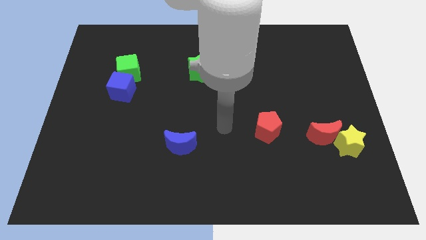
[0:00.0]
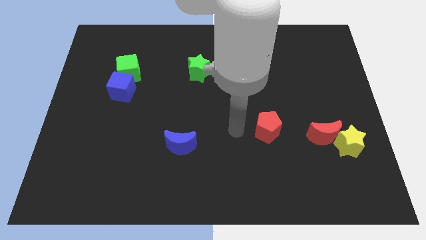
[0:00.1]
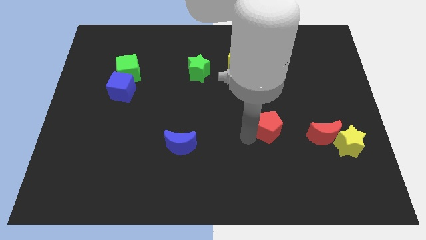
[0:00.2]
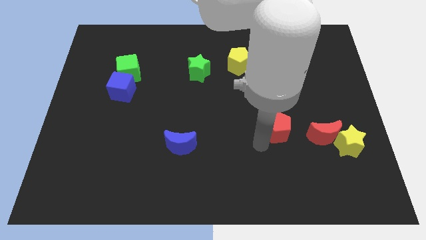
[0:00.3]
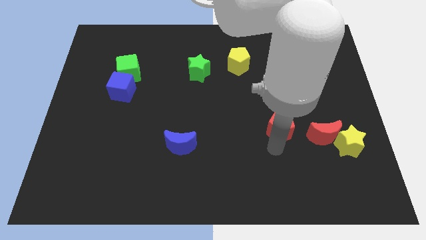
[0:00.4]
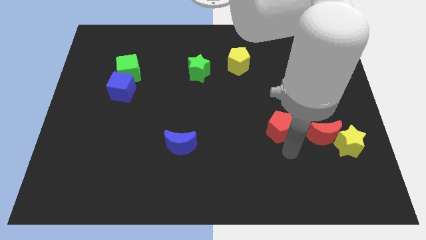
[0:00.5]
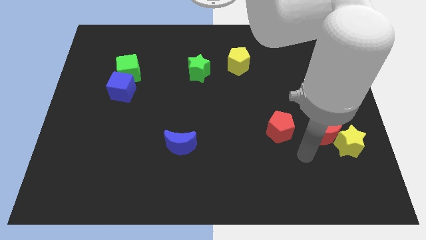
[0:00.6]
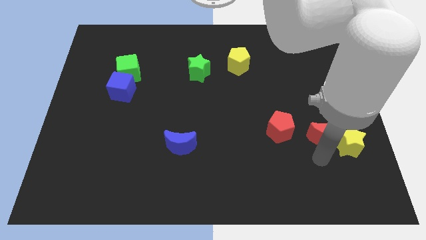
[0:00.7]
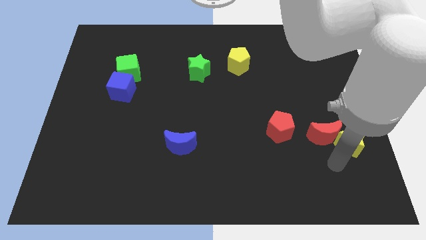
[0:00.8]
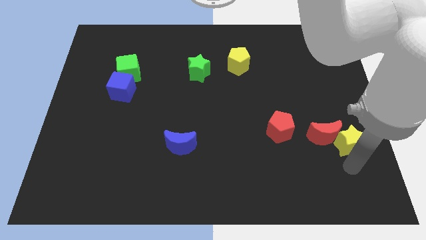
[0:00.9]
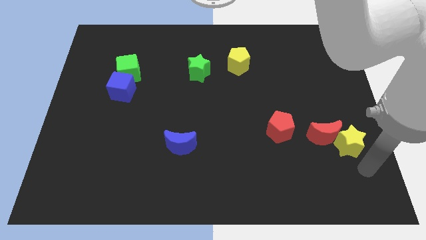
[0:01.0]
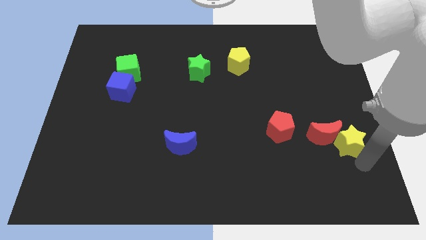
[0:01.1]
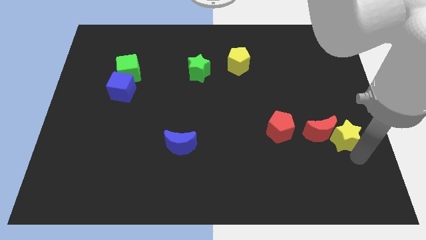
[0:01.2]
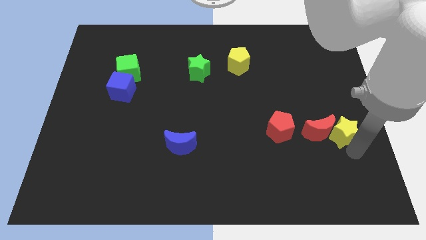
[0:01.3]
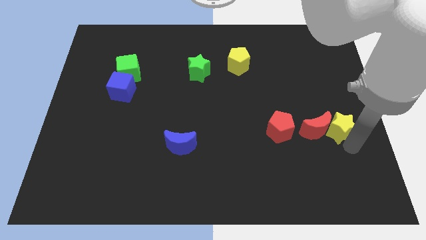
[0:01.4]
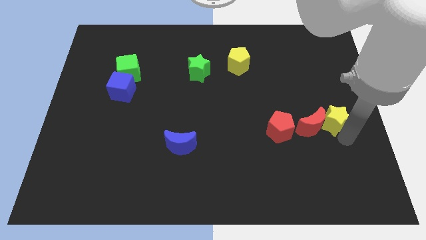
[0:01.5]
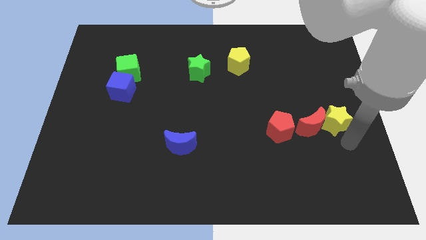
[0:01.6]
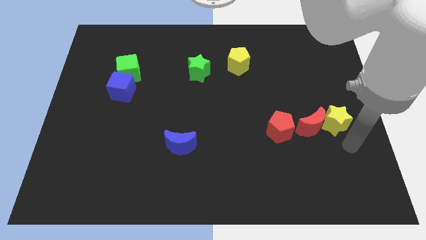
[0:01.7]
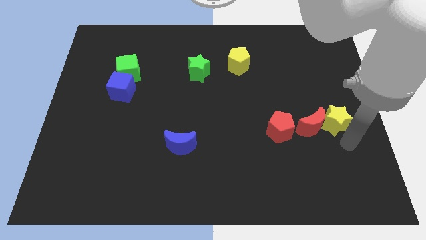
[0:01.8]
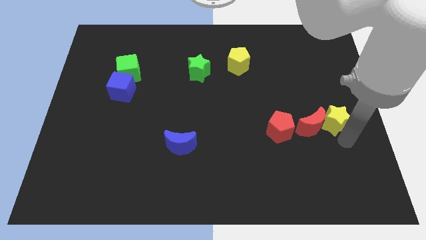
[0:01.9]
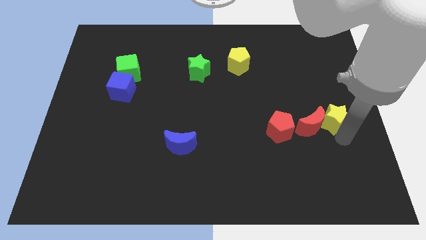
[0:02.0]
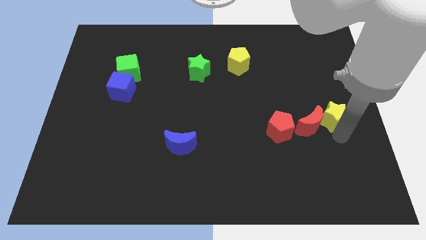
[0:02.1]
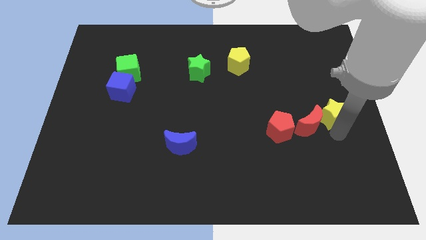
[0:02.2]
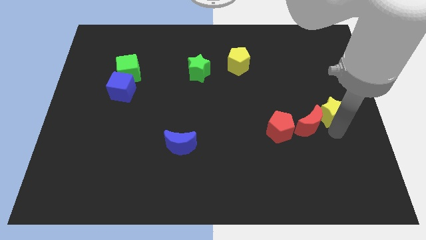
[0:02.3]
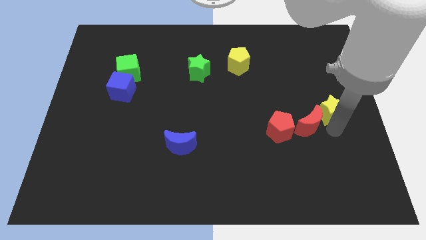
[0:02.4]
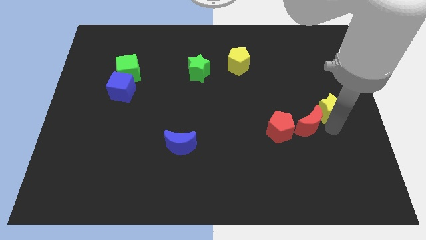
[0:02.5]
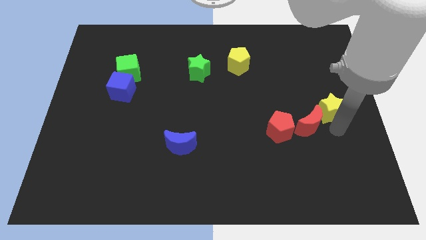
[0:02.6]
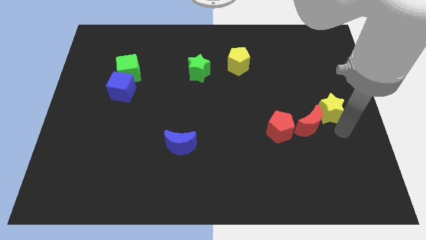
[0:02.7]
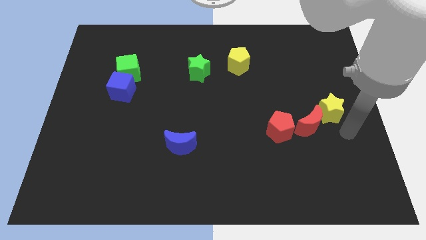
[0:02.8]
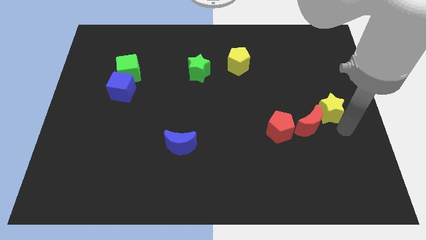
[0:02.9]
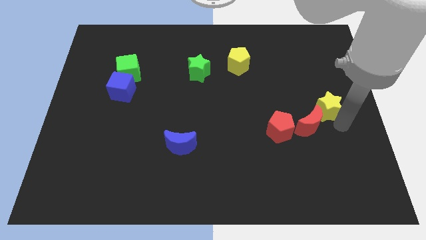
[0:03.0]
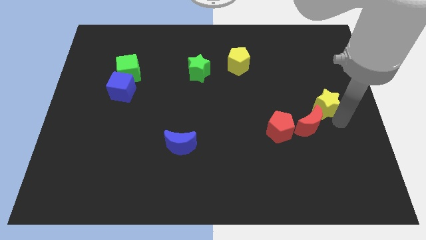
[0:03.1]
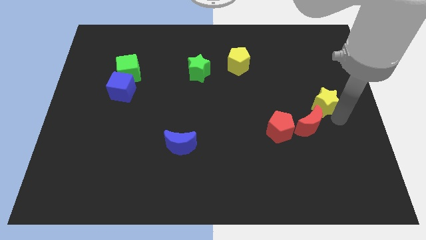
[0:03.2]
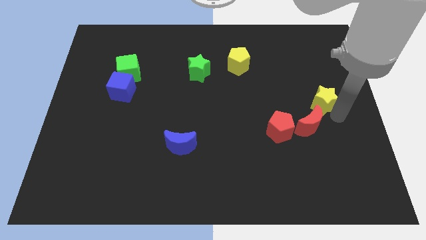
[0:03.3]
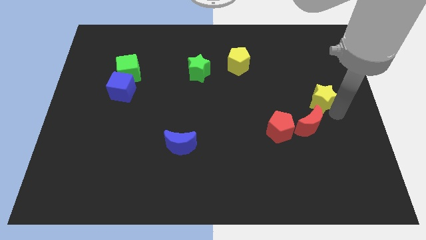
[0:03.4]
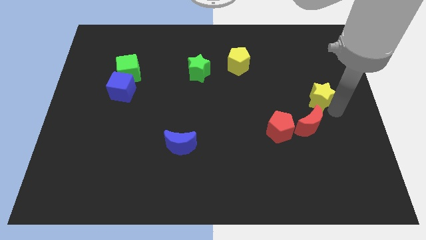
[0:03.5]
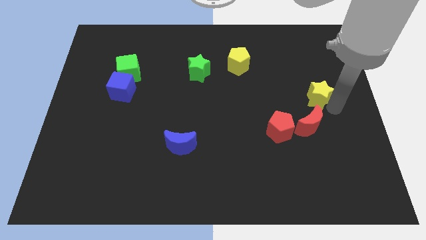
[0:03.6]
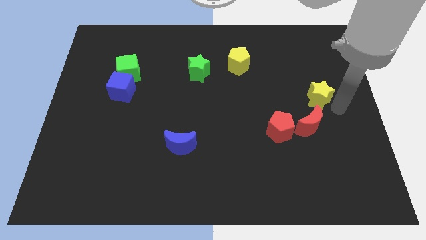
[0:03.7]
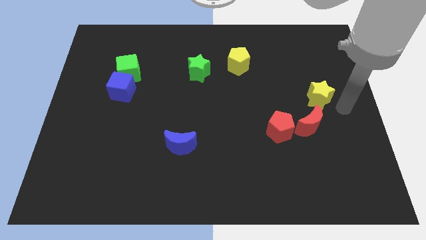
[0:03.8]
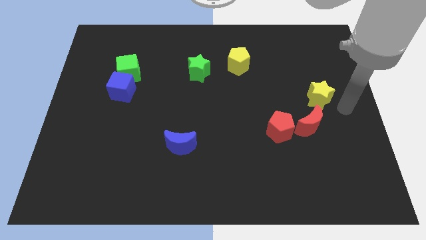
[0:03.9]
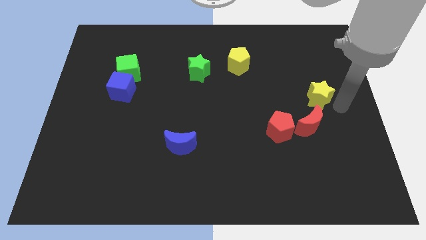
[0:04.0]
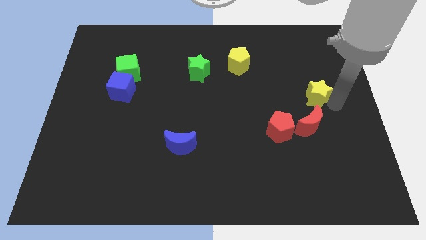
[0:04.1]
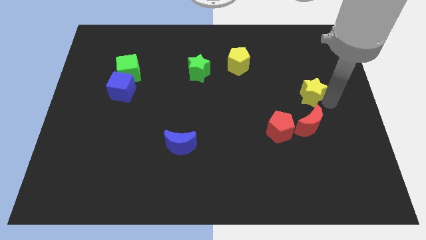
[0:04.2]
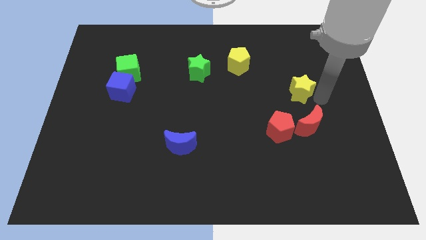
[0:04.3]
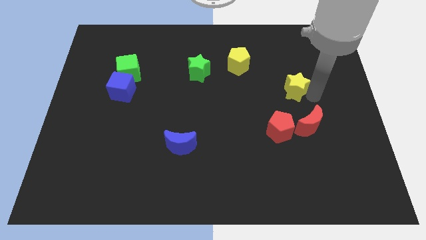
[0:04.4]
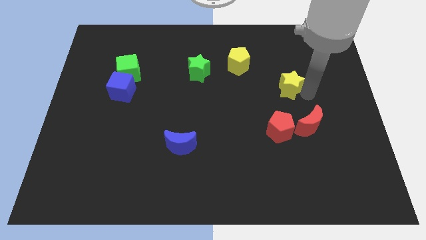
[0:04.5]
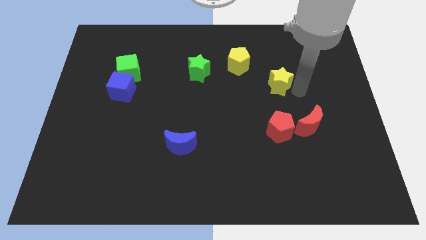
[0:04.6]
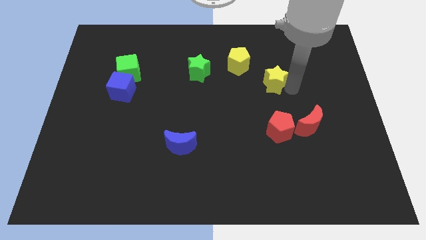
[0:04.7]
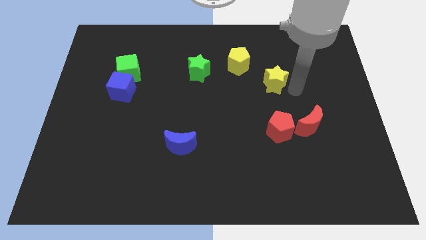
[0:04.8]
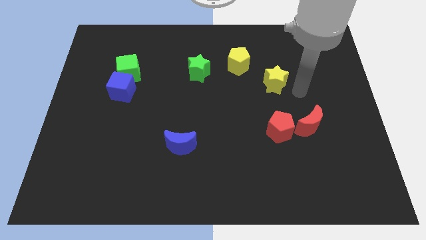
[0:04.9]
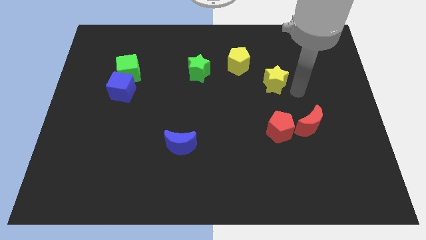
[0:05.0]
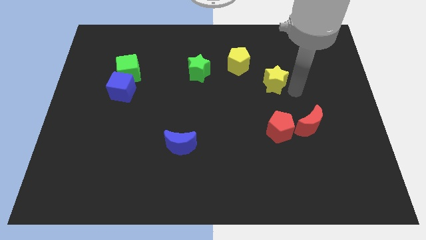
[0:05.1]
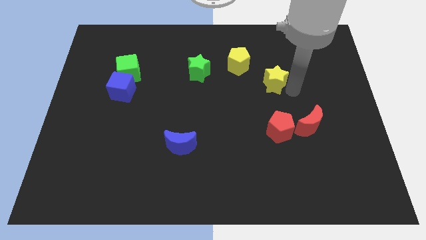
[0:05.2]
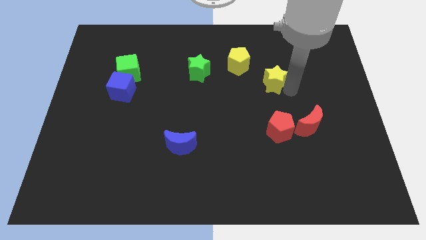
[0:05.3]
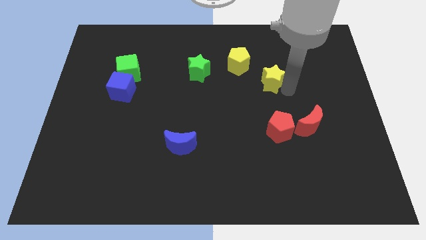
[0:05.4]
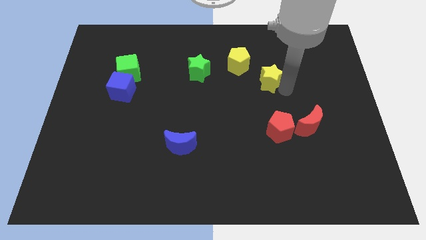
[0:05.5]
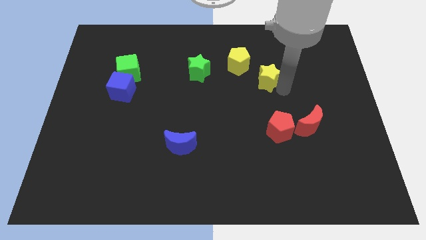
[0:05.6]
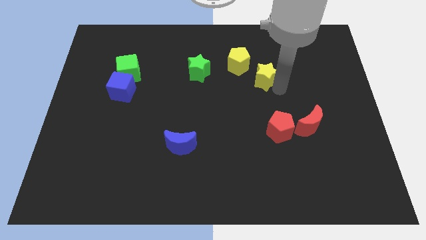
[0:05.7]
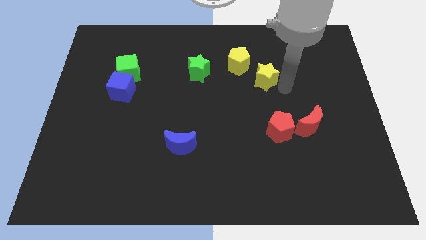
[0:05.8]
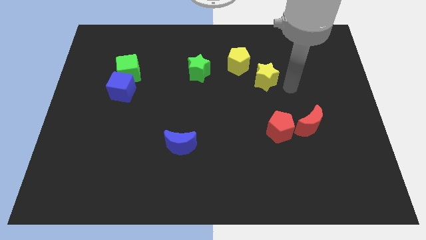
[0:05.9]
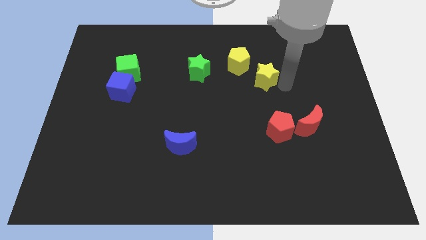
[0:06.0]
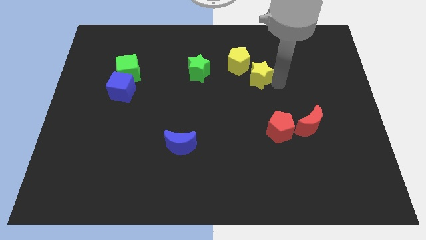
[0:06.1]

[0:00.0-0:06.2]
push the yellow star to the right of the green star

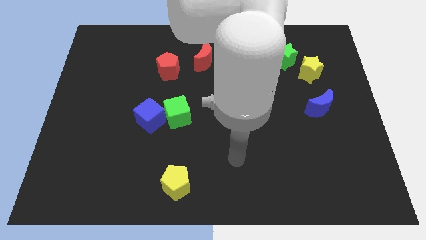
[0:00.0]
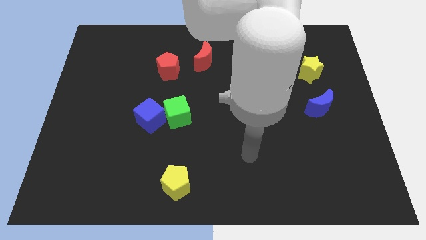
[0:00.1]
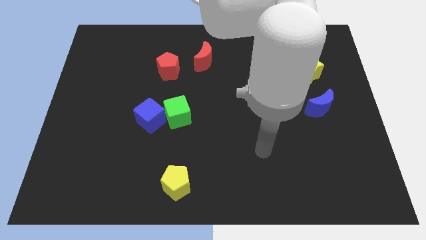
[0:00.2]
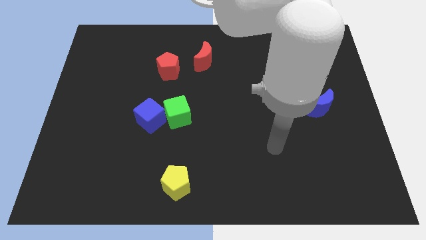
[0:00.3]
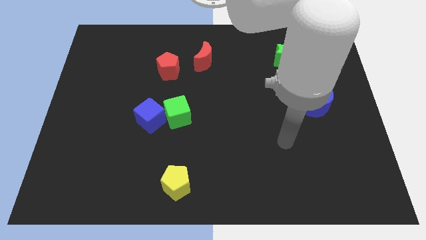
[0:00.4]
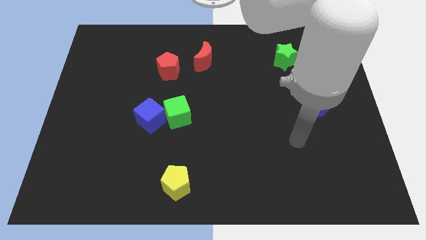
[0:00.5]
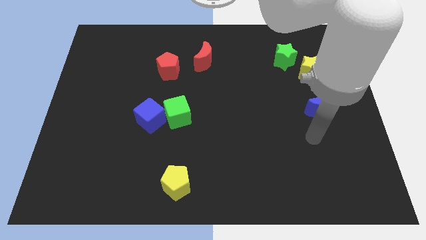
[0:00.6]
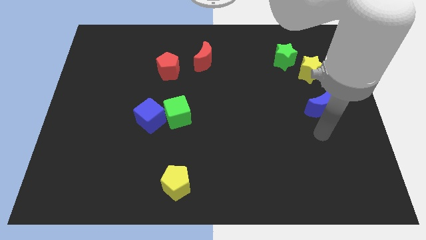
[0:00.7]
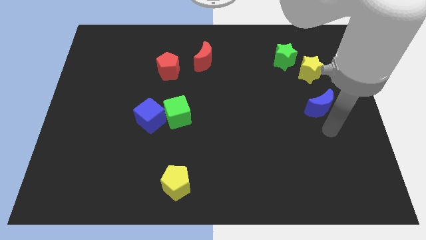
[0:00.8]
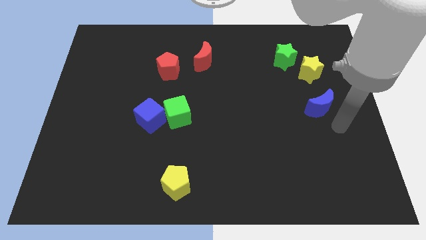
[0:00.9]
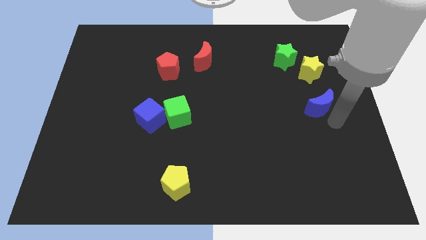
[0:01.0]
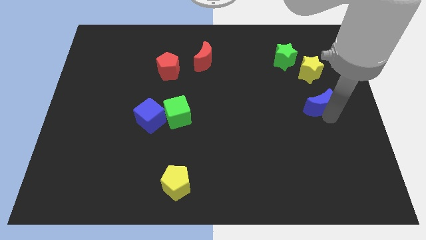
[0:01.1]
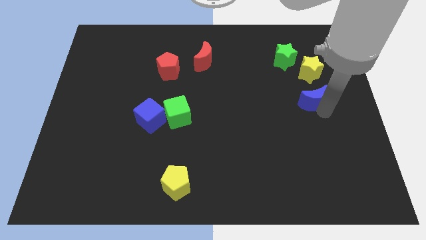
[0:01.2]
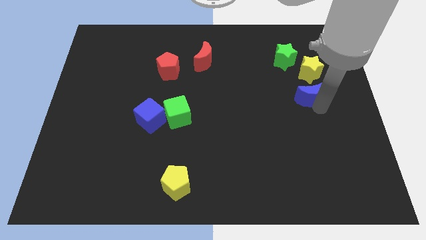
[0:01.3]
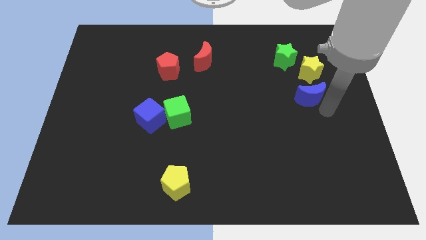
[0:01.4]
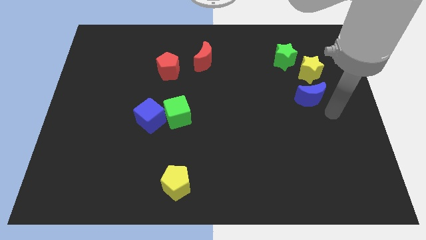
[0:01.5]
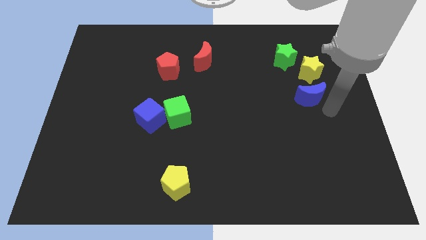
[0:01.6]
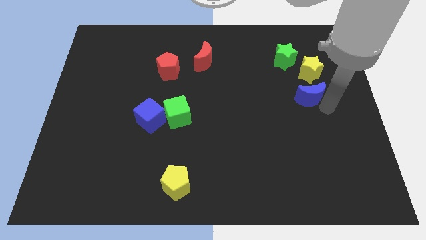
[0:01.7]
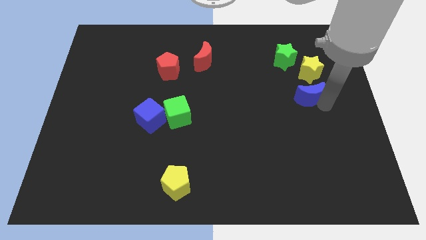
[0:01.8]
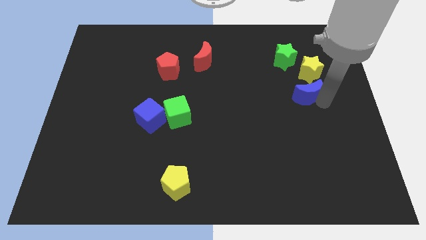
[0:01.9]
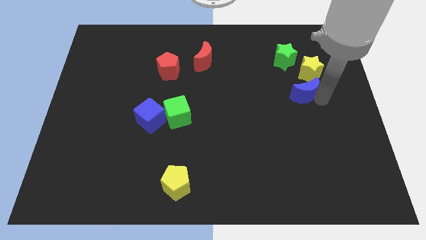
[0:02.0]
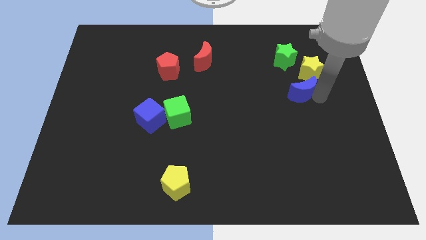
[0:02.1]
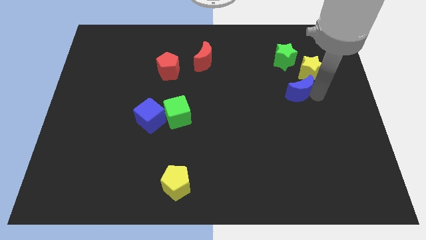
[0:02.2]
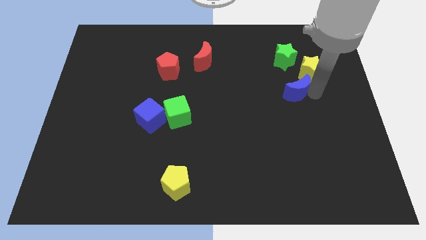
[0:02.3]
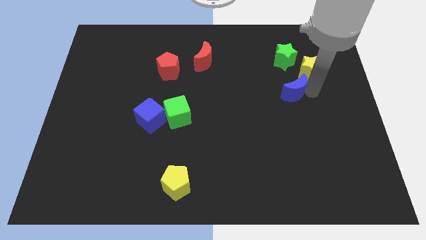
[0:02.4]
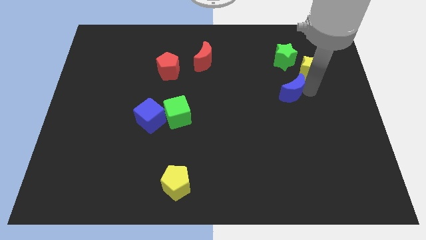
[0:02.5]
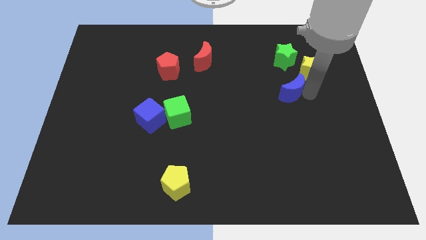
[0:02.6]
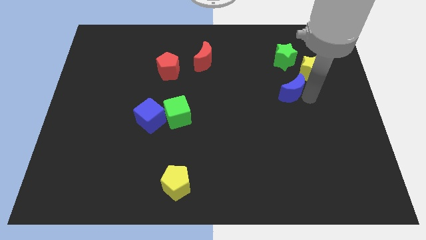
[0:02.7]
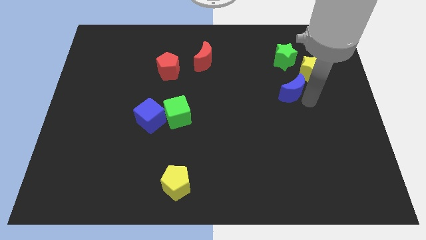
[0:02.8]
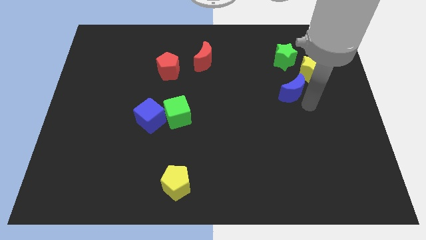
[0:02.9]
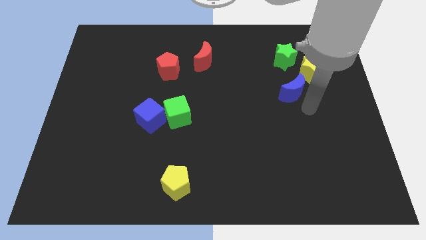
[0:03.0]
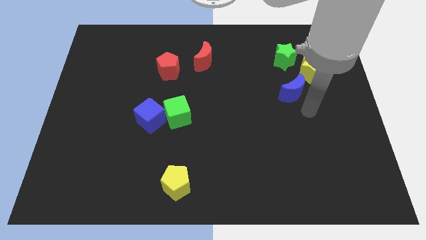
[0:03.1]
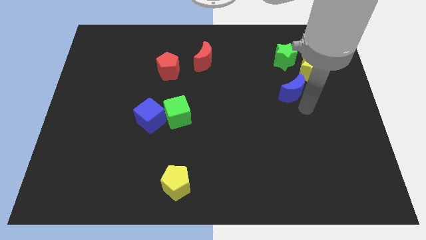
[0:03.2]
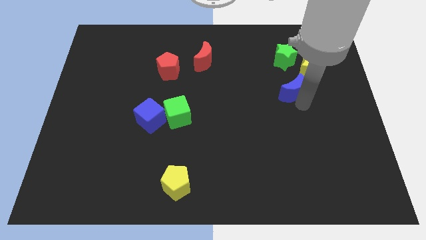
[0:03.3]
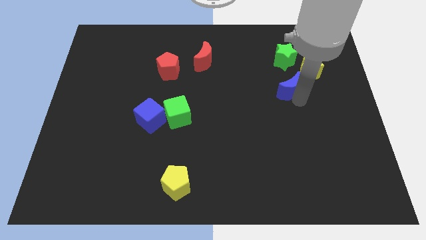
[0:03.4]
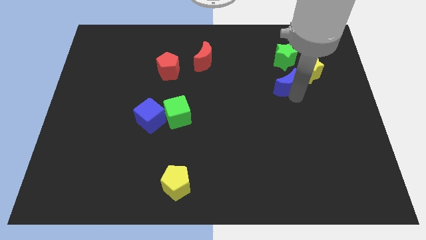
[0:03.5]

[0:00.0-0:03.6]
move the blue moon left of the yellow star
